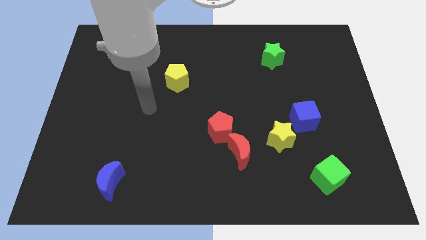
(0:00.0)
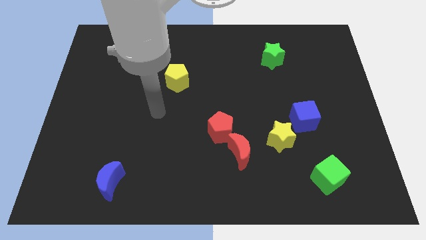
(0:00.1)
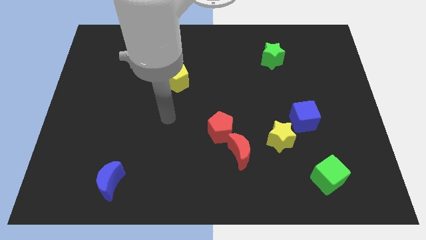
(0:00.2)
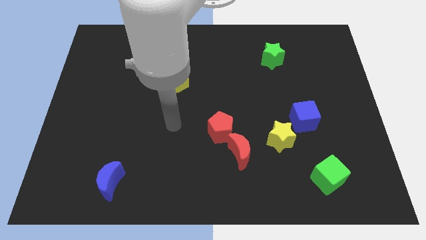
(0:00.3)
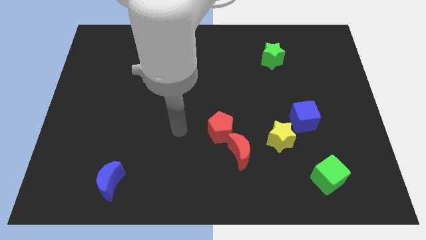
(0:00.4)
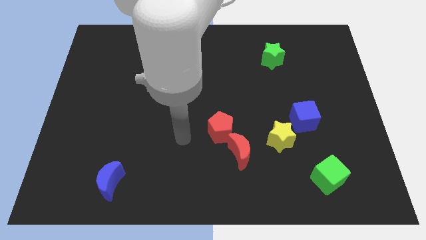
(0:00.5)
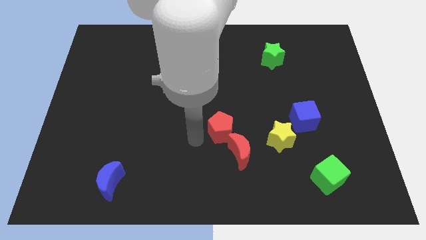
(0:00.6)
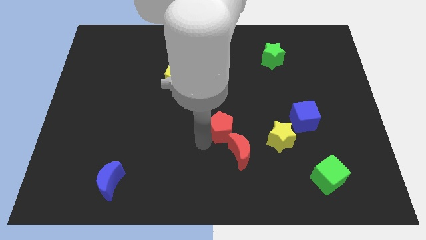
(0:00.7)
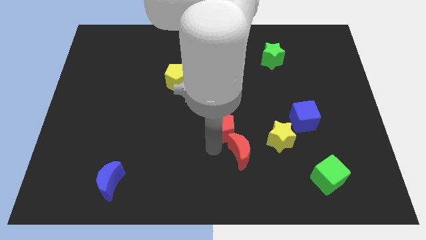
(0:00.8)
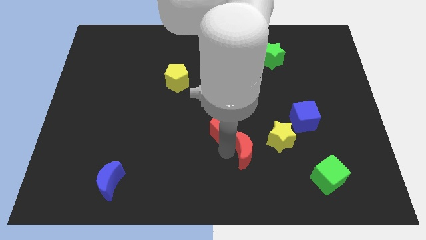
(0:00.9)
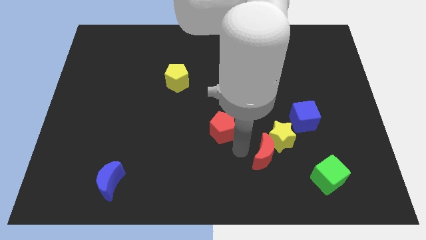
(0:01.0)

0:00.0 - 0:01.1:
separate the red pentagon from the red moon

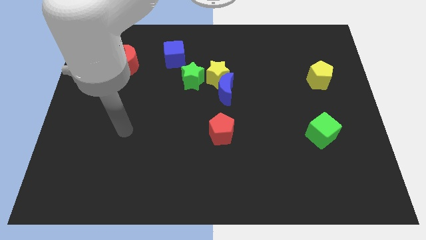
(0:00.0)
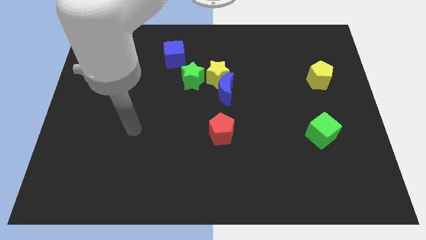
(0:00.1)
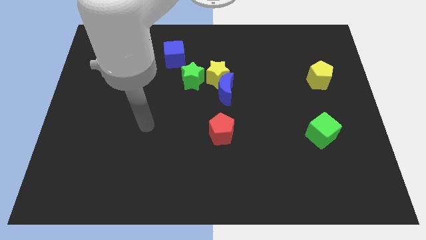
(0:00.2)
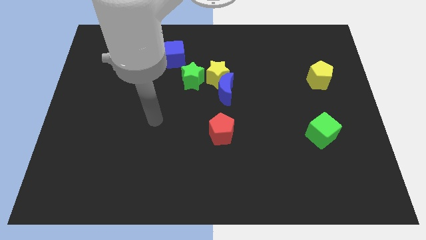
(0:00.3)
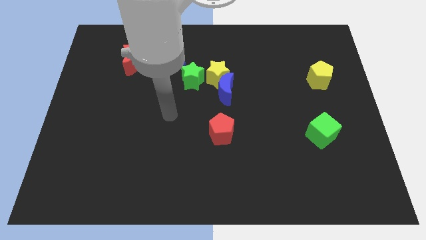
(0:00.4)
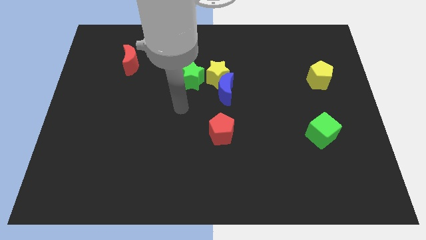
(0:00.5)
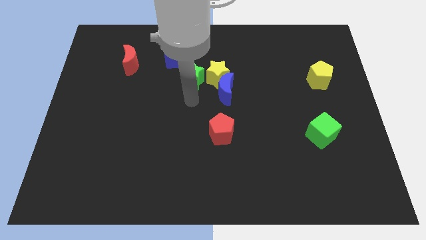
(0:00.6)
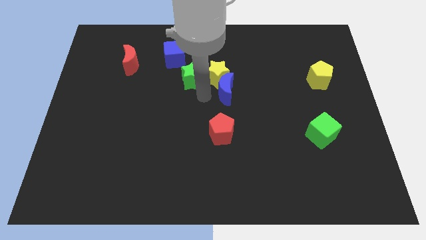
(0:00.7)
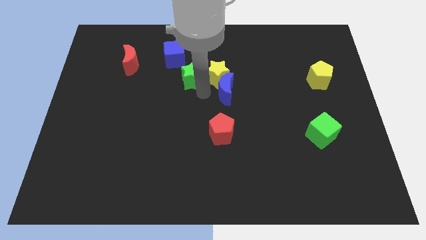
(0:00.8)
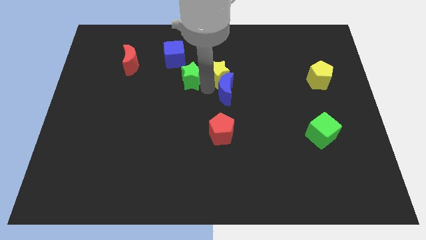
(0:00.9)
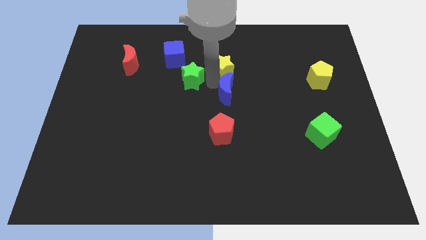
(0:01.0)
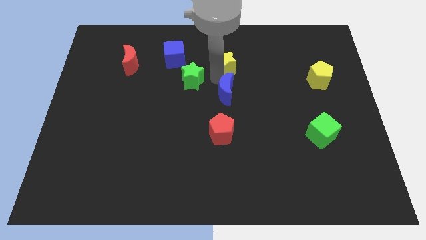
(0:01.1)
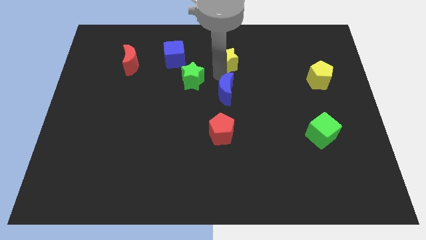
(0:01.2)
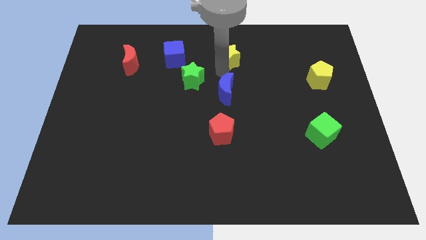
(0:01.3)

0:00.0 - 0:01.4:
separate the yellow star from the blue moon and green star

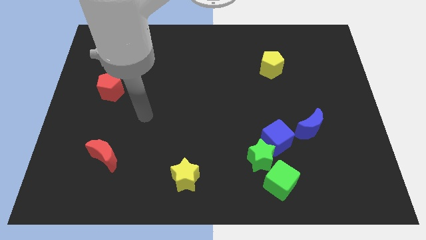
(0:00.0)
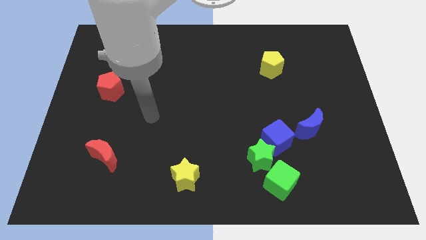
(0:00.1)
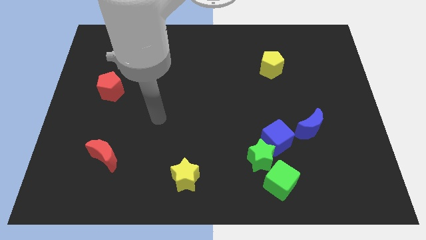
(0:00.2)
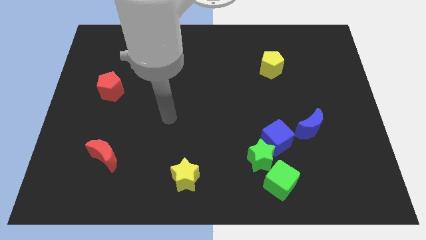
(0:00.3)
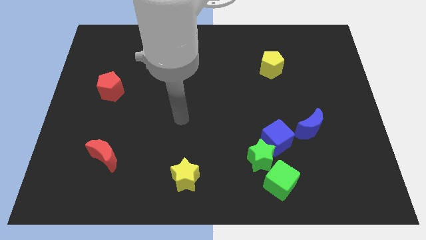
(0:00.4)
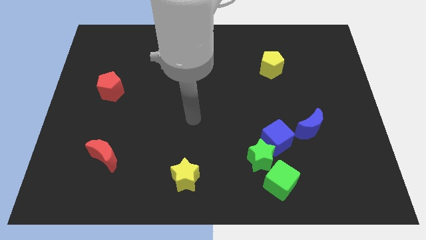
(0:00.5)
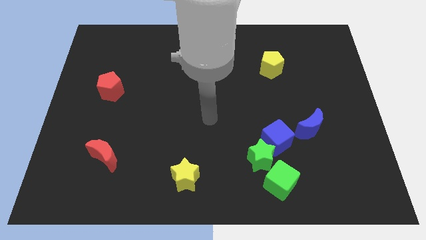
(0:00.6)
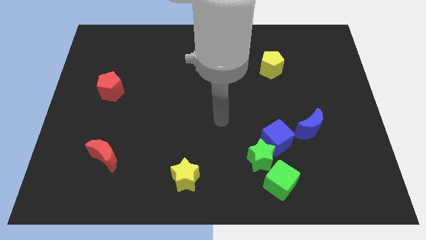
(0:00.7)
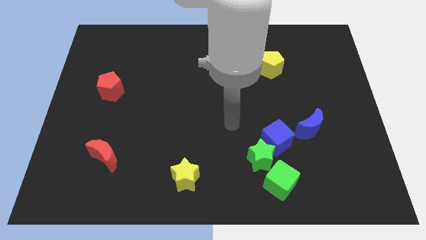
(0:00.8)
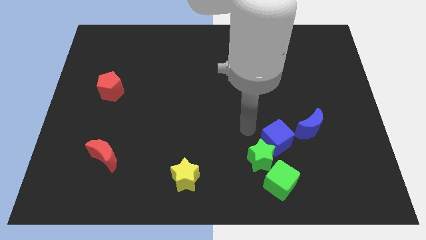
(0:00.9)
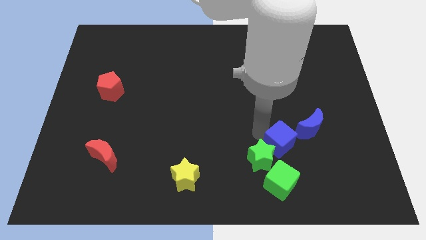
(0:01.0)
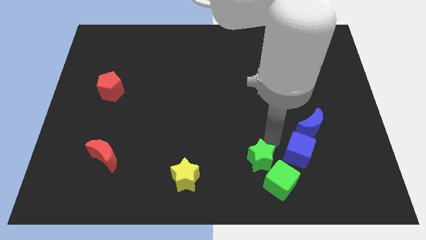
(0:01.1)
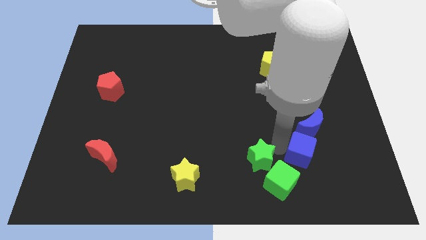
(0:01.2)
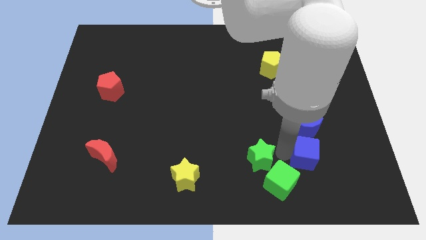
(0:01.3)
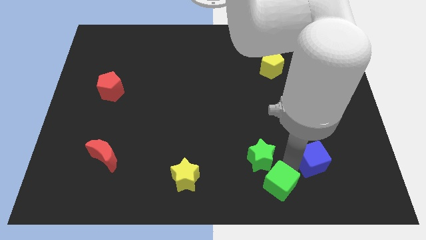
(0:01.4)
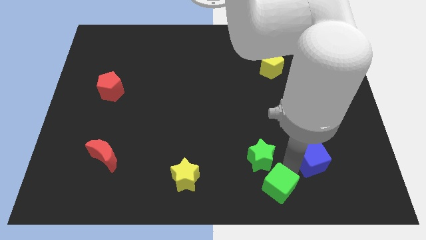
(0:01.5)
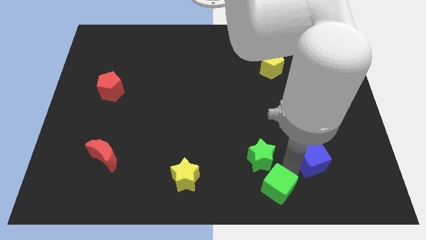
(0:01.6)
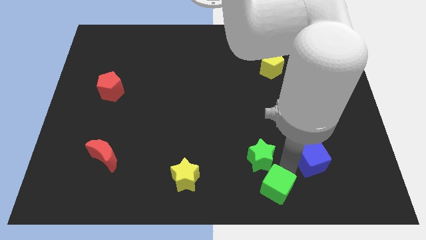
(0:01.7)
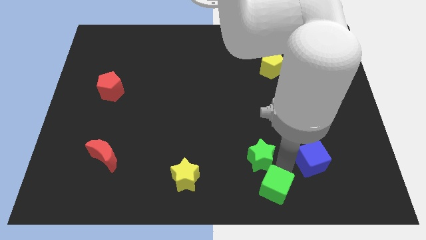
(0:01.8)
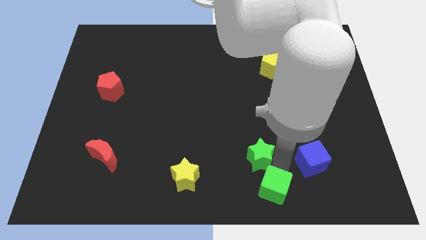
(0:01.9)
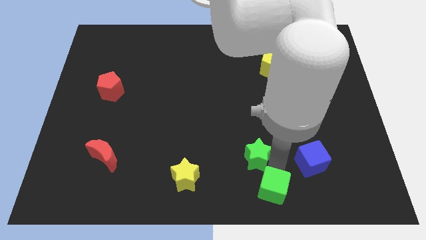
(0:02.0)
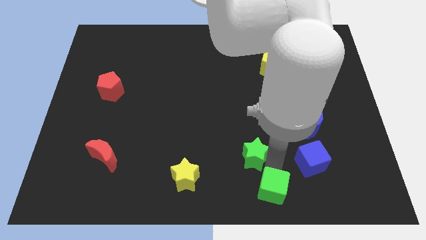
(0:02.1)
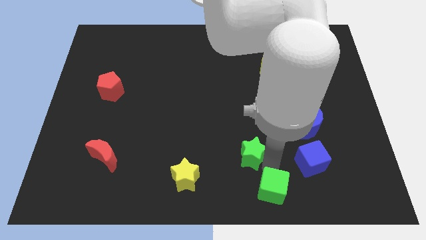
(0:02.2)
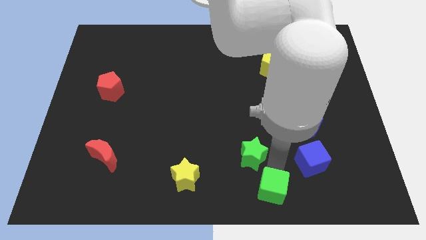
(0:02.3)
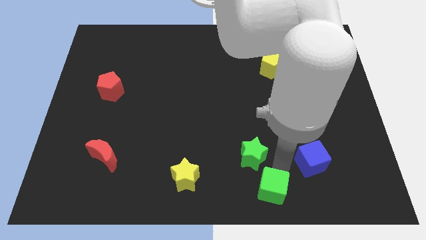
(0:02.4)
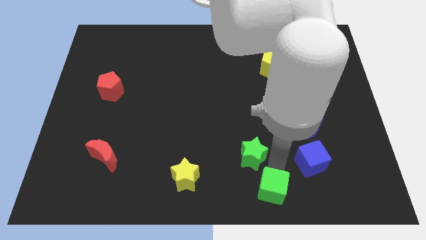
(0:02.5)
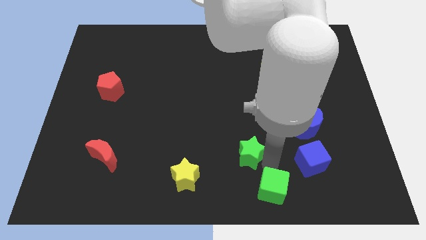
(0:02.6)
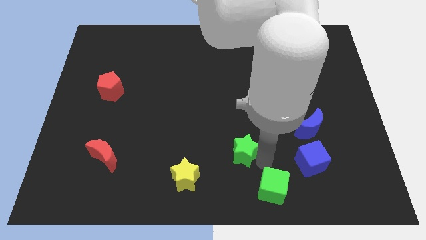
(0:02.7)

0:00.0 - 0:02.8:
move the green star away from the blue cube and green cube

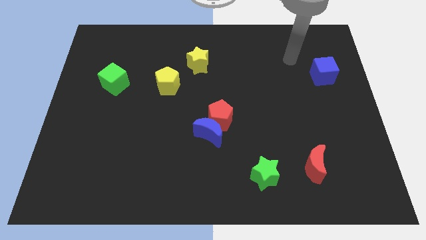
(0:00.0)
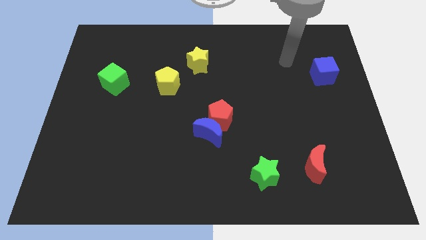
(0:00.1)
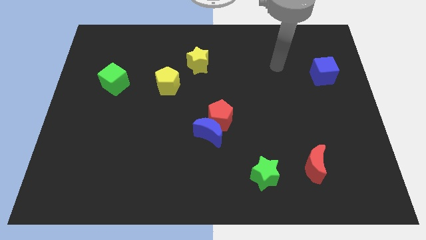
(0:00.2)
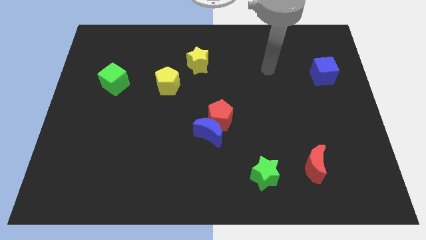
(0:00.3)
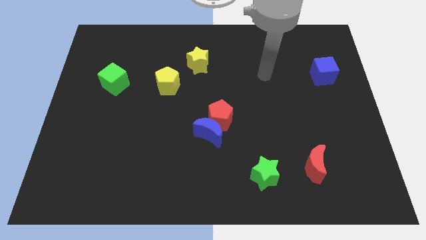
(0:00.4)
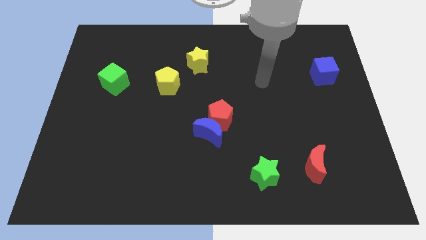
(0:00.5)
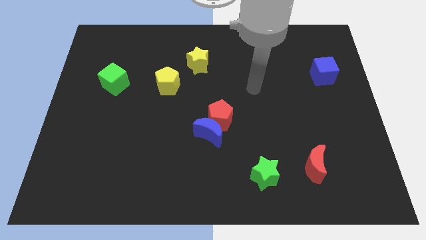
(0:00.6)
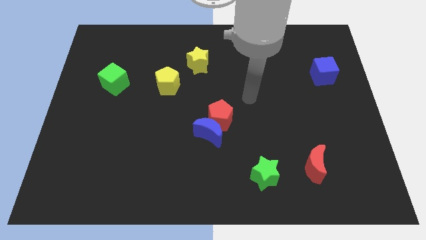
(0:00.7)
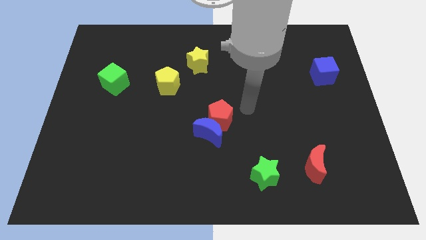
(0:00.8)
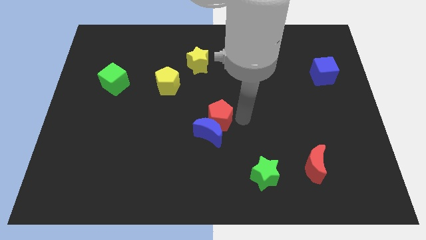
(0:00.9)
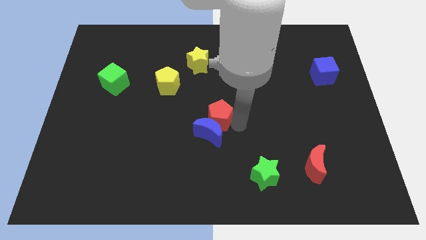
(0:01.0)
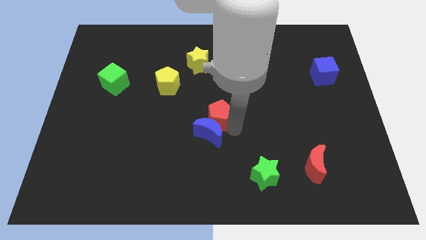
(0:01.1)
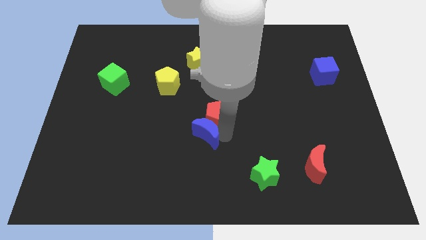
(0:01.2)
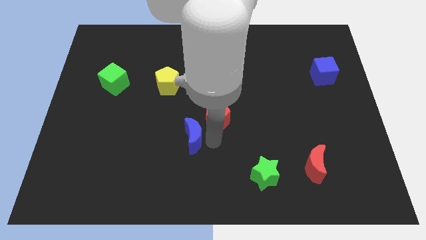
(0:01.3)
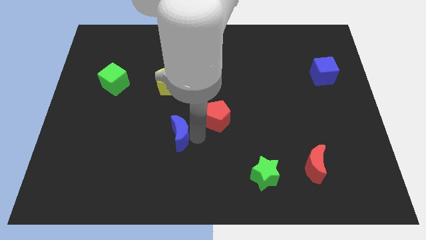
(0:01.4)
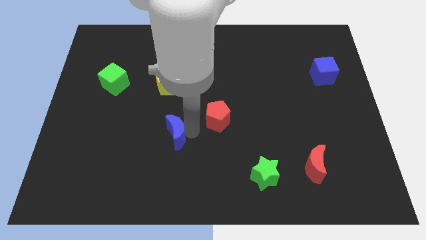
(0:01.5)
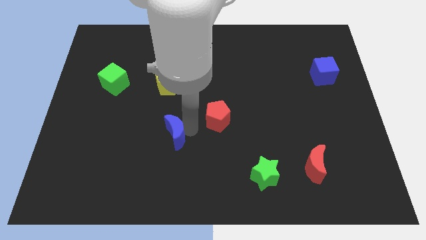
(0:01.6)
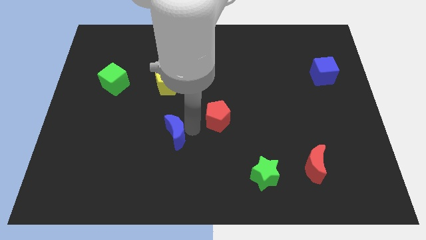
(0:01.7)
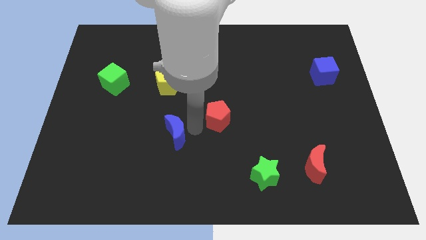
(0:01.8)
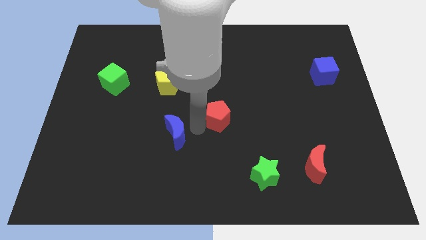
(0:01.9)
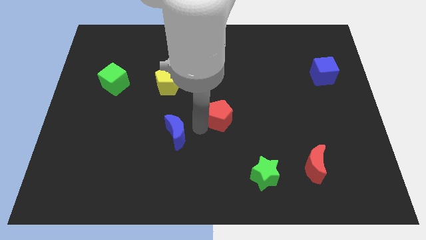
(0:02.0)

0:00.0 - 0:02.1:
move the red pentagon away from the blue moon

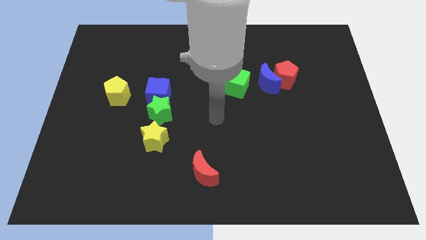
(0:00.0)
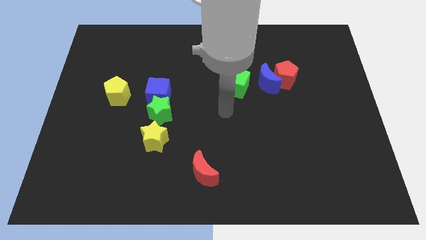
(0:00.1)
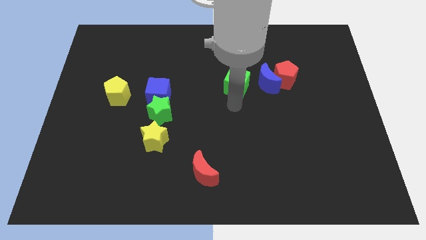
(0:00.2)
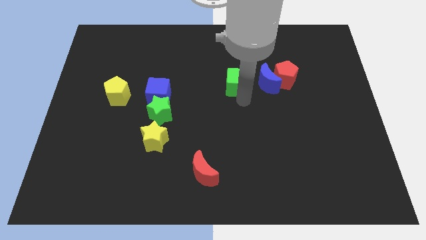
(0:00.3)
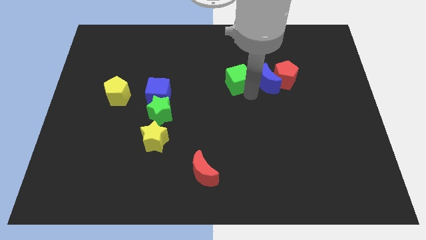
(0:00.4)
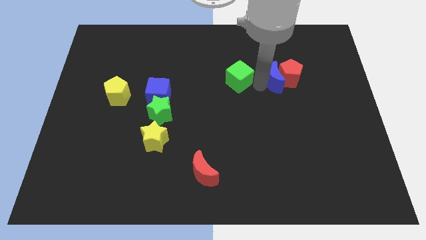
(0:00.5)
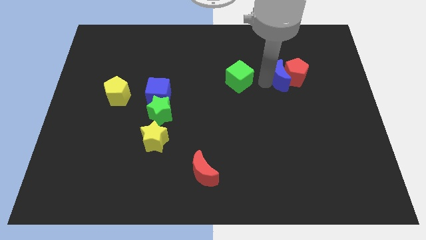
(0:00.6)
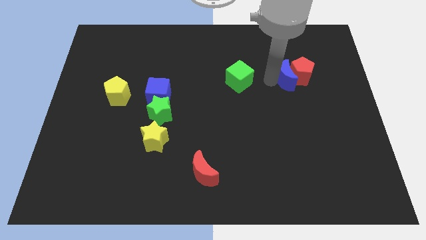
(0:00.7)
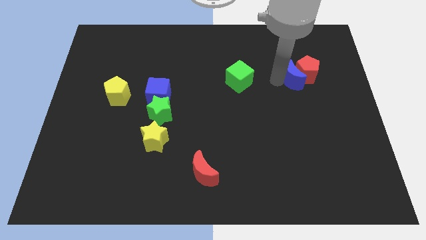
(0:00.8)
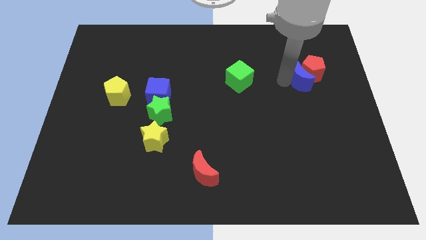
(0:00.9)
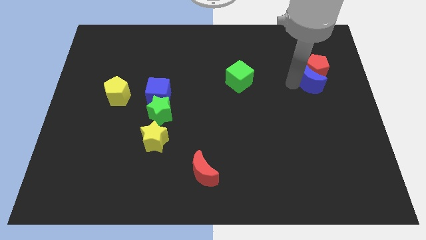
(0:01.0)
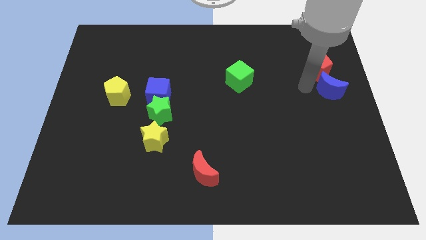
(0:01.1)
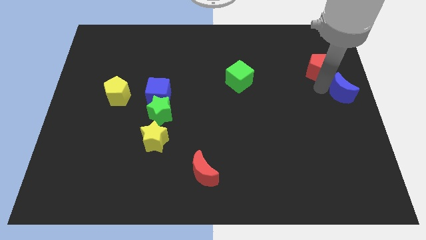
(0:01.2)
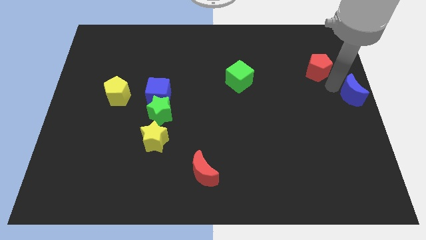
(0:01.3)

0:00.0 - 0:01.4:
pull the red pentagon apart from the blue moon

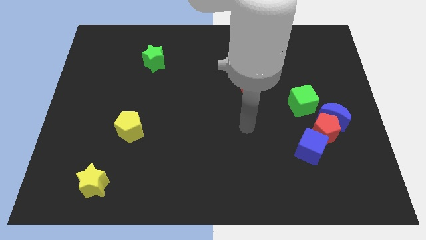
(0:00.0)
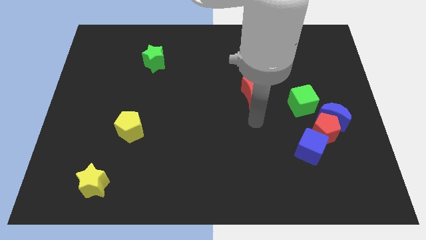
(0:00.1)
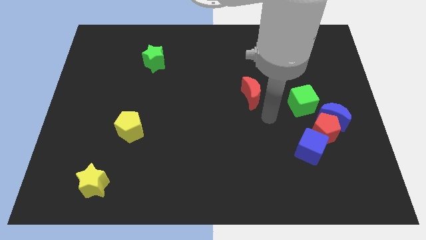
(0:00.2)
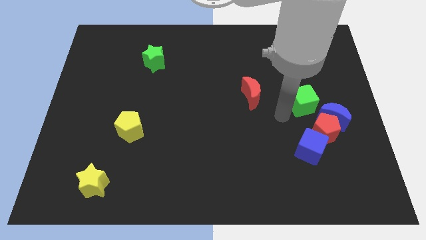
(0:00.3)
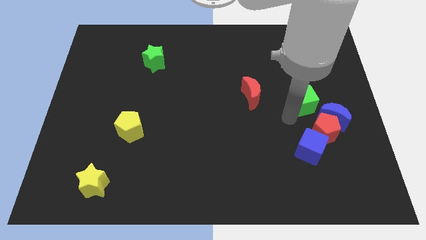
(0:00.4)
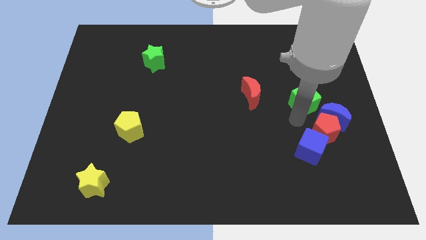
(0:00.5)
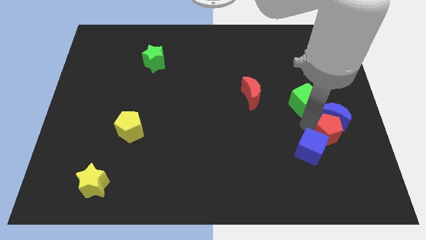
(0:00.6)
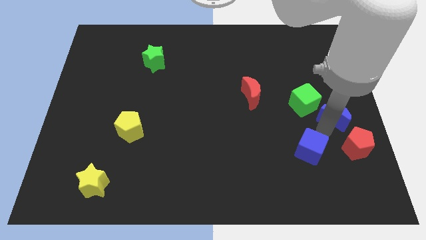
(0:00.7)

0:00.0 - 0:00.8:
separate the blue cube from the red pentagon
